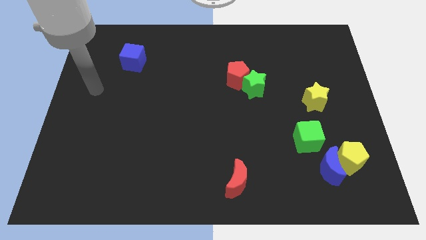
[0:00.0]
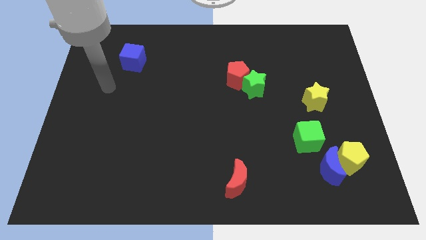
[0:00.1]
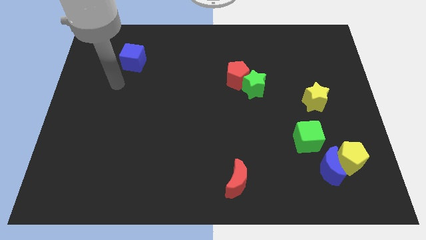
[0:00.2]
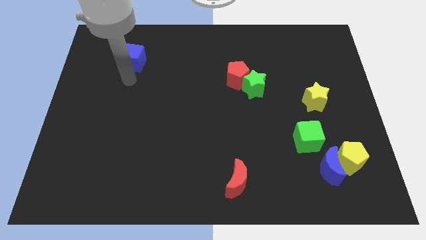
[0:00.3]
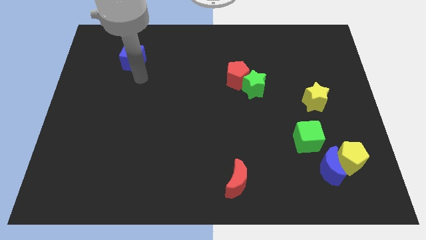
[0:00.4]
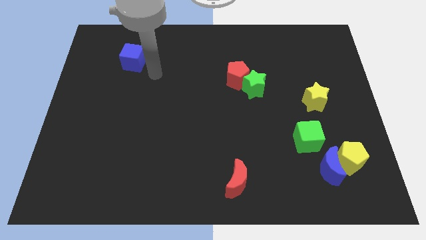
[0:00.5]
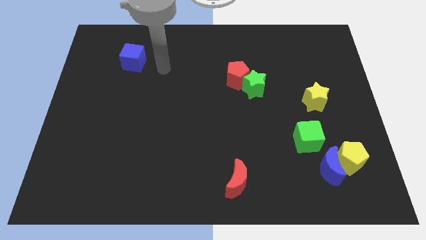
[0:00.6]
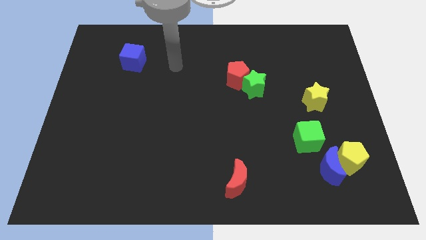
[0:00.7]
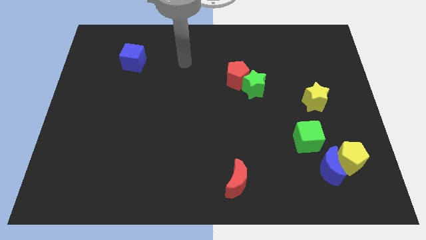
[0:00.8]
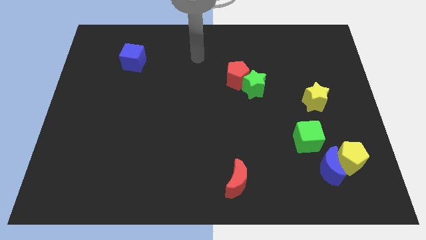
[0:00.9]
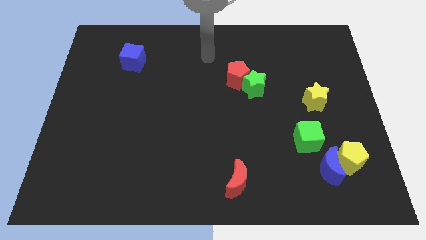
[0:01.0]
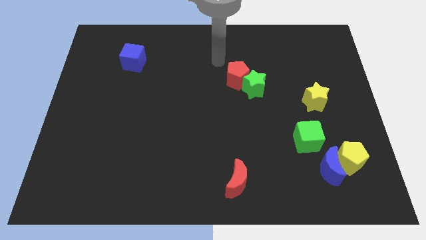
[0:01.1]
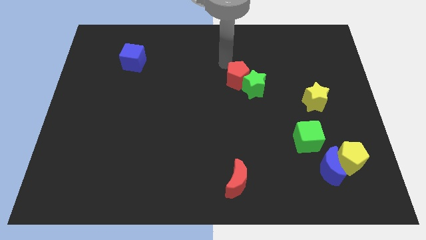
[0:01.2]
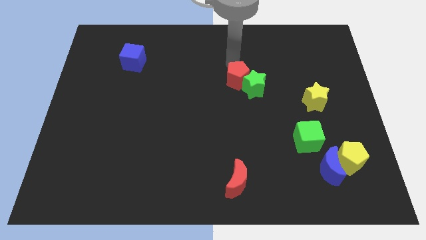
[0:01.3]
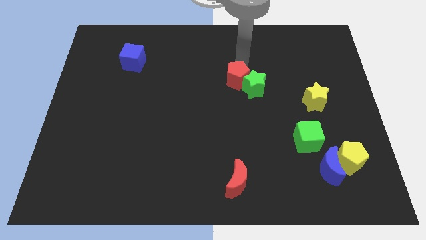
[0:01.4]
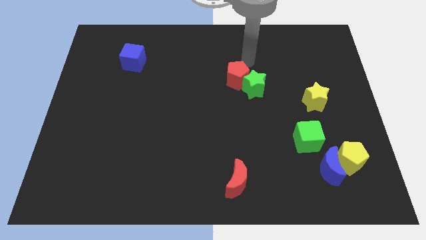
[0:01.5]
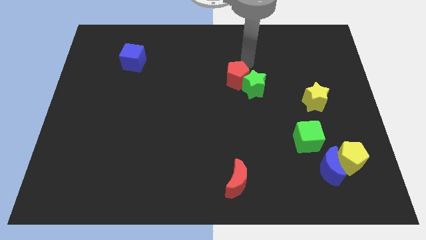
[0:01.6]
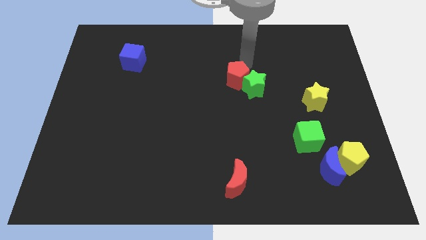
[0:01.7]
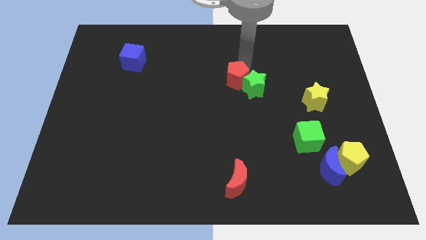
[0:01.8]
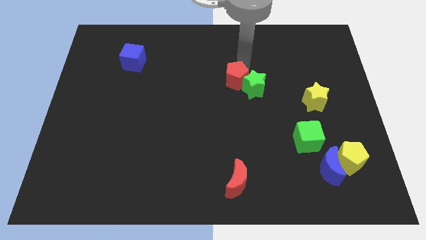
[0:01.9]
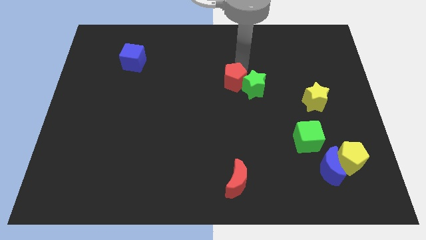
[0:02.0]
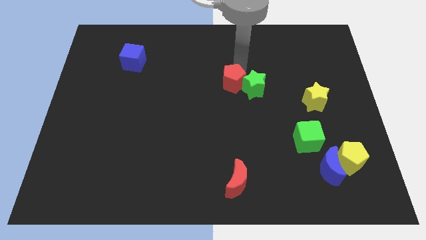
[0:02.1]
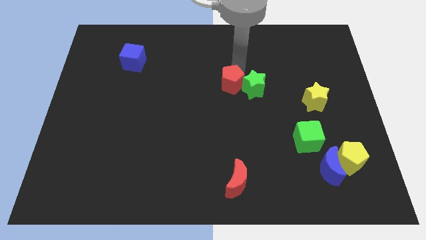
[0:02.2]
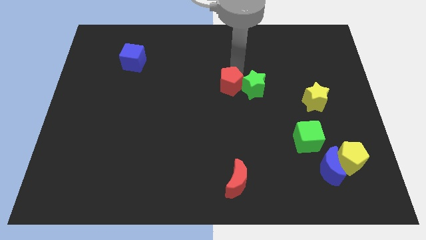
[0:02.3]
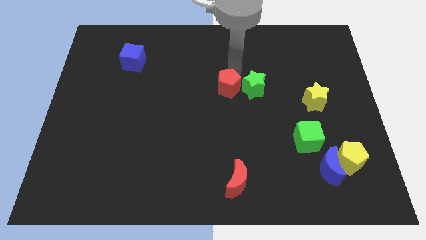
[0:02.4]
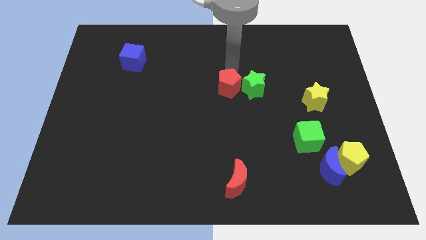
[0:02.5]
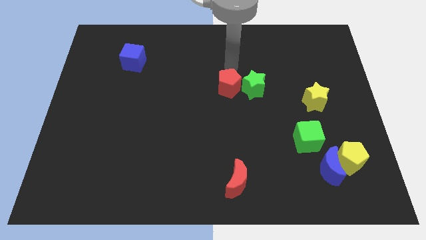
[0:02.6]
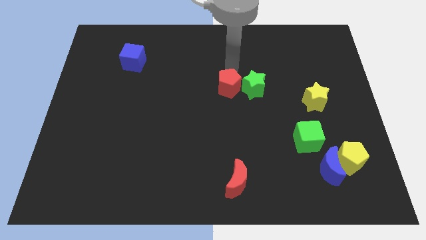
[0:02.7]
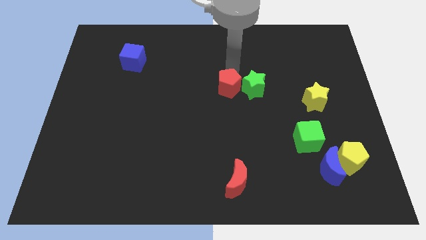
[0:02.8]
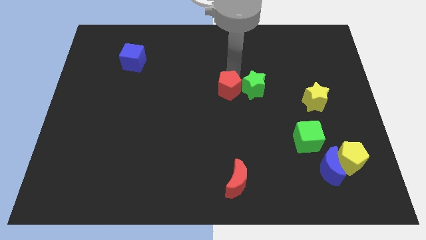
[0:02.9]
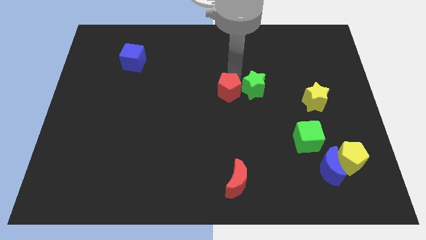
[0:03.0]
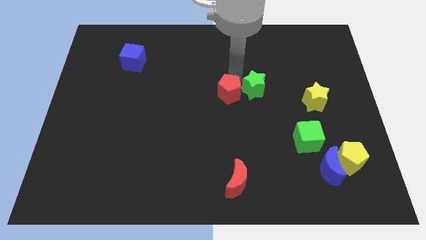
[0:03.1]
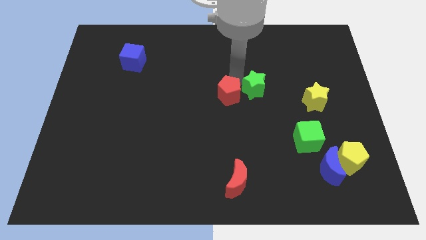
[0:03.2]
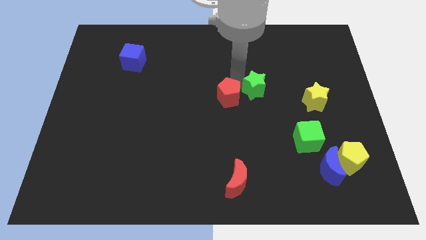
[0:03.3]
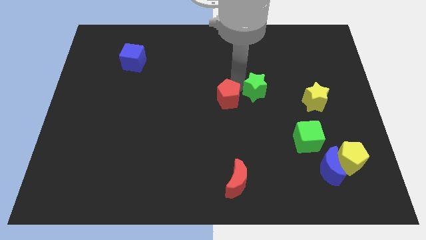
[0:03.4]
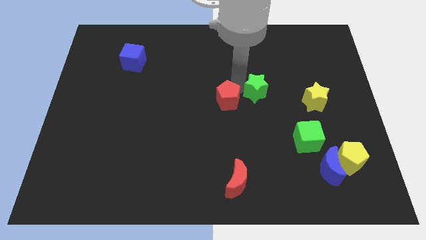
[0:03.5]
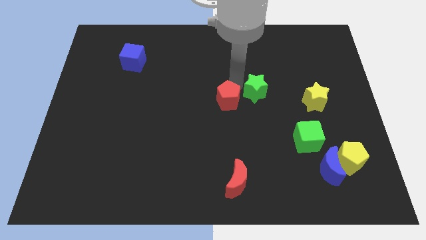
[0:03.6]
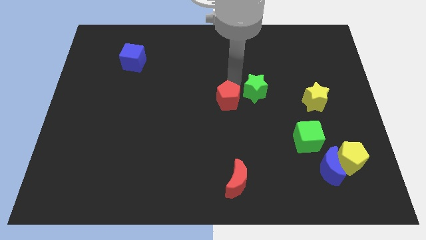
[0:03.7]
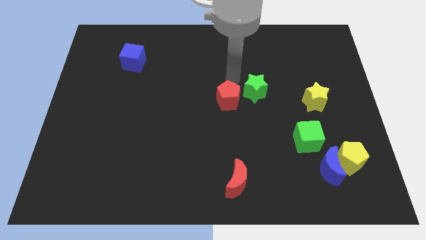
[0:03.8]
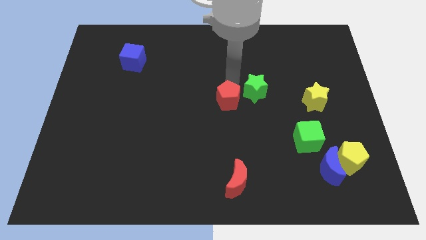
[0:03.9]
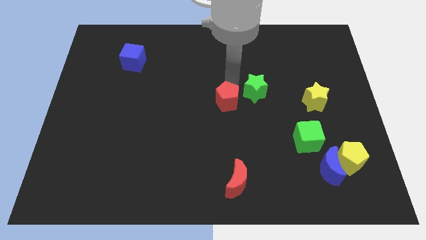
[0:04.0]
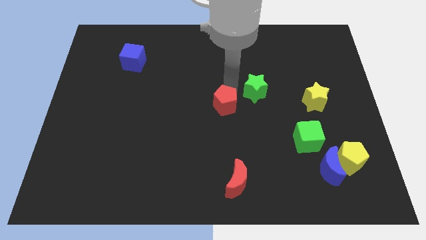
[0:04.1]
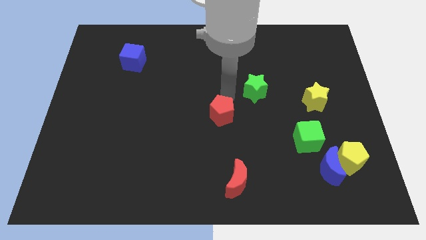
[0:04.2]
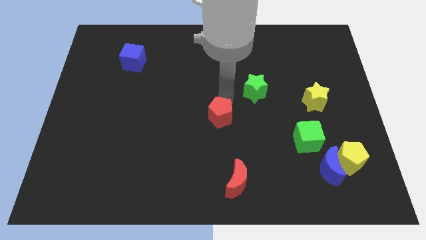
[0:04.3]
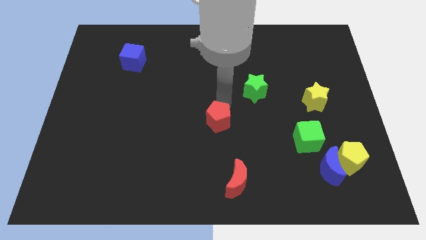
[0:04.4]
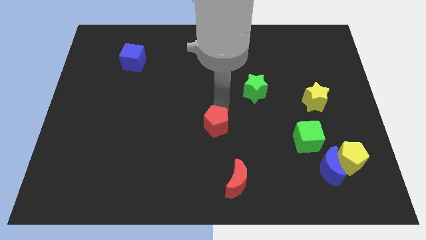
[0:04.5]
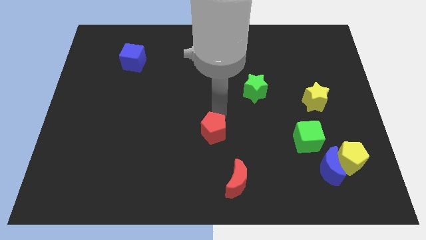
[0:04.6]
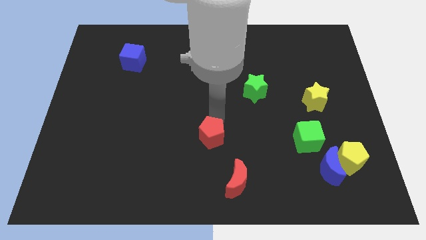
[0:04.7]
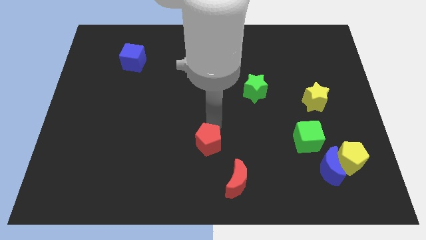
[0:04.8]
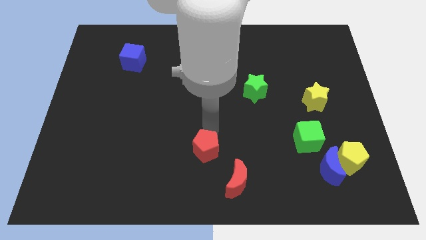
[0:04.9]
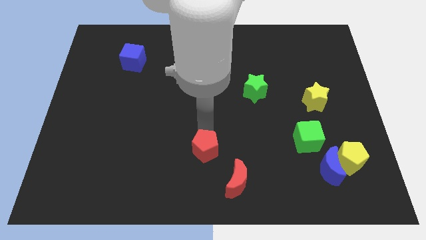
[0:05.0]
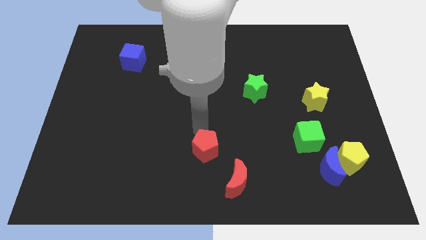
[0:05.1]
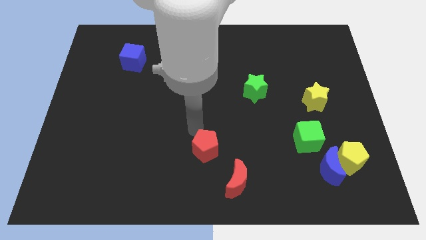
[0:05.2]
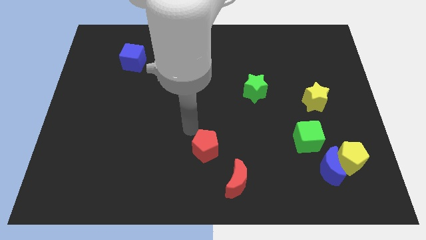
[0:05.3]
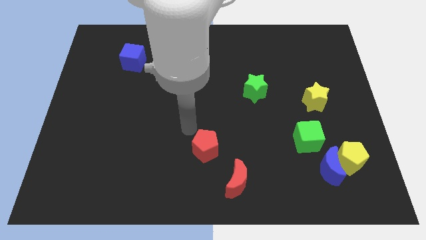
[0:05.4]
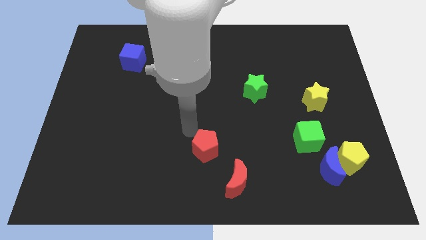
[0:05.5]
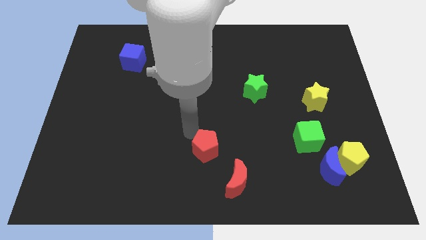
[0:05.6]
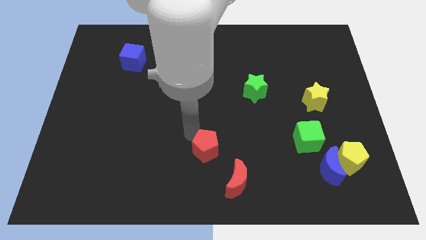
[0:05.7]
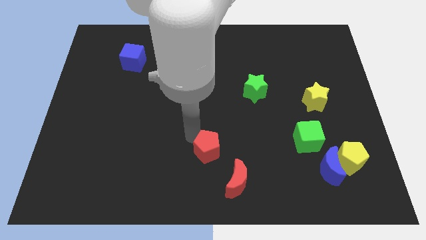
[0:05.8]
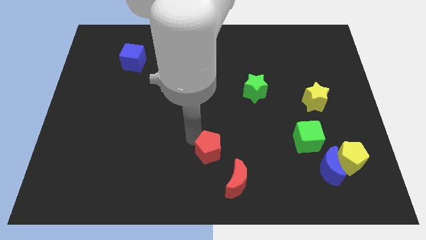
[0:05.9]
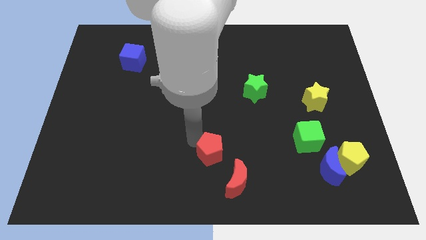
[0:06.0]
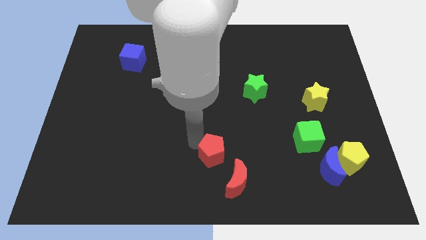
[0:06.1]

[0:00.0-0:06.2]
push the red pentagon to the bottom side
